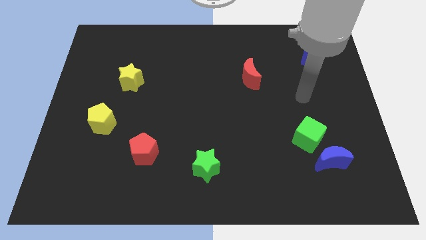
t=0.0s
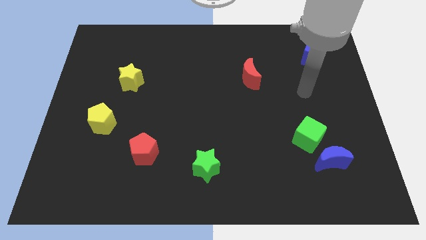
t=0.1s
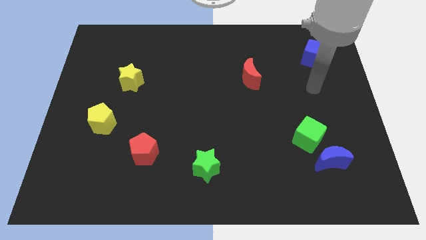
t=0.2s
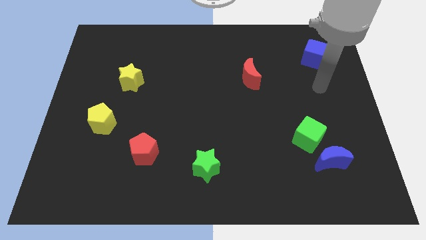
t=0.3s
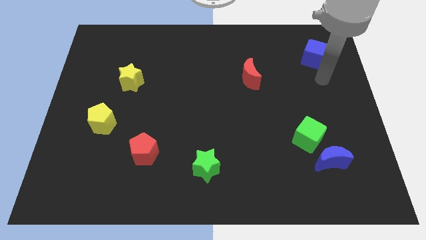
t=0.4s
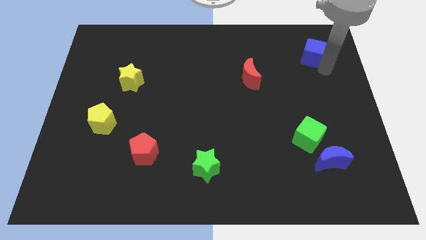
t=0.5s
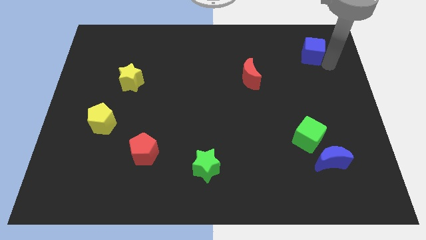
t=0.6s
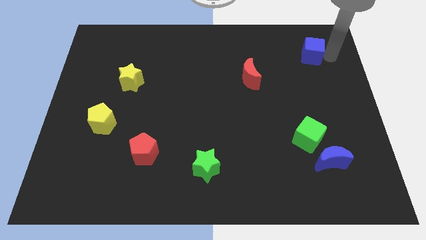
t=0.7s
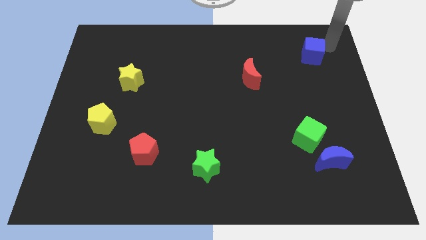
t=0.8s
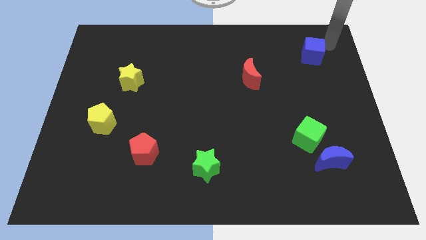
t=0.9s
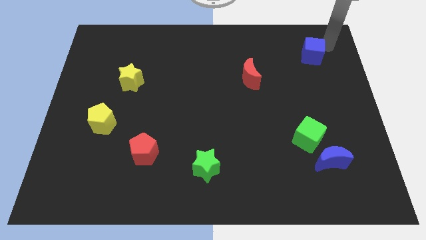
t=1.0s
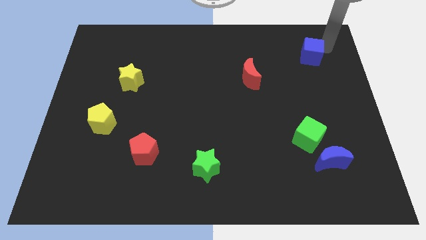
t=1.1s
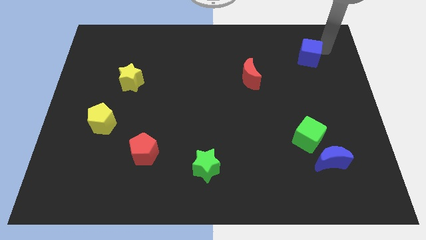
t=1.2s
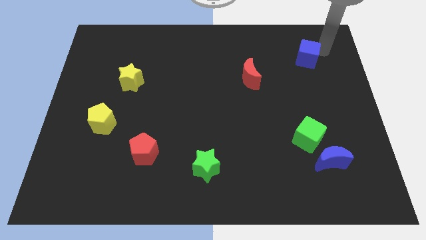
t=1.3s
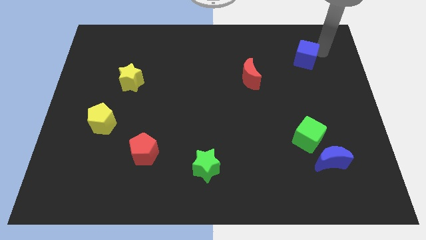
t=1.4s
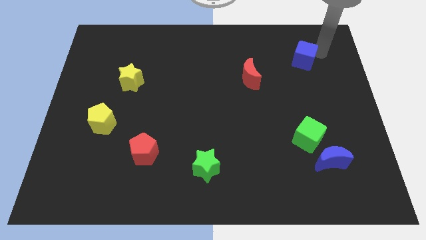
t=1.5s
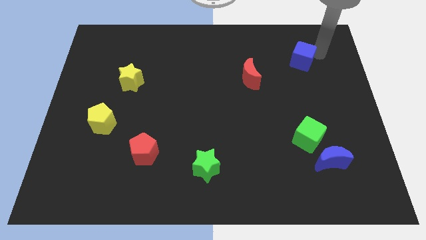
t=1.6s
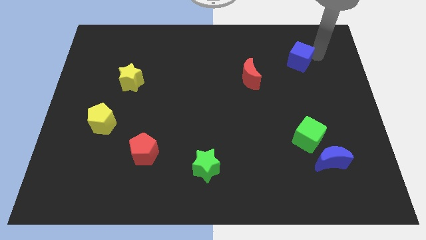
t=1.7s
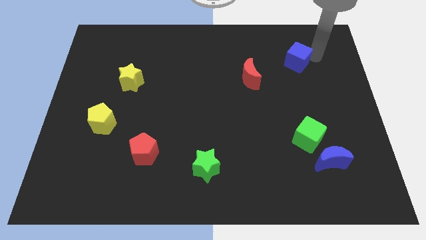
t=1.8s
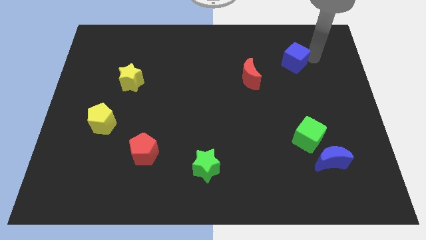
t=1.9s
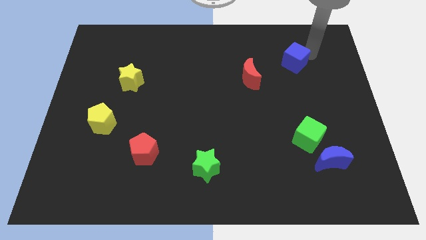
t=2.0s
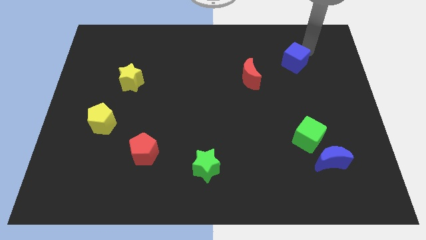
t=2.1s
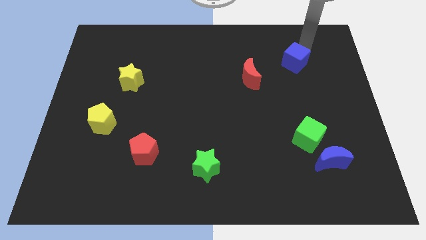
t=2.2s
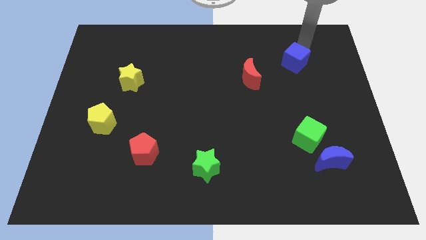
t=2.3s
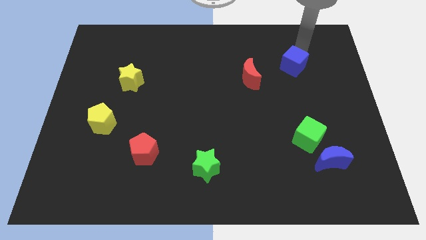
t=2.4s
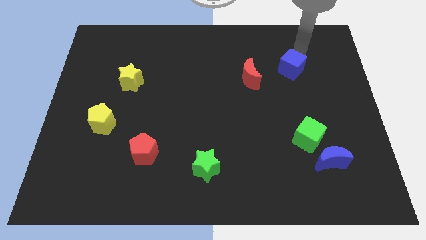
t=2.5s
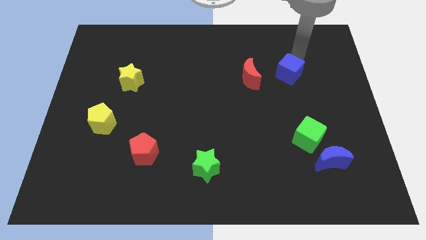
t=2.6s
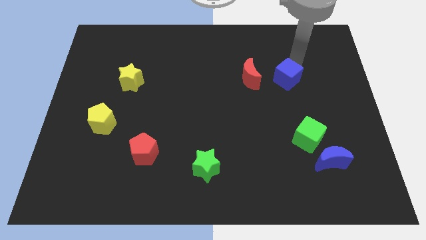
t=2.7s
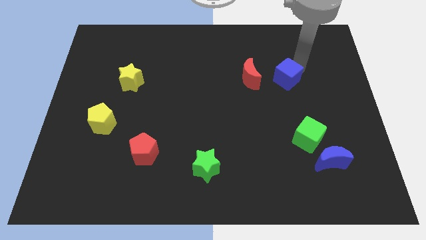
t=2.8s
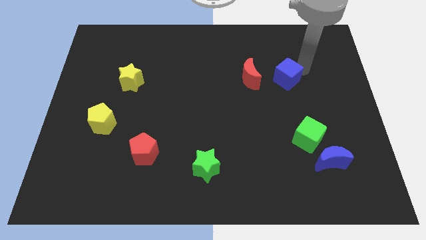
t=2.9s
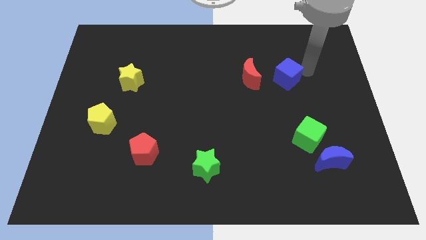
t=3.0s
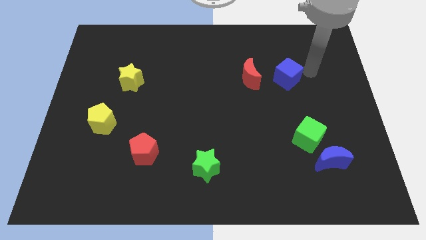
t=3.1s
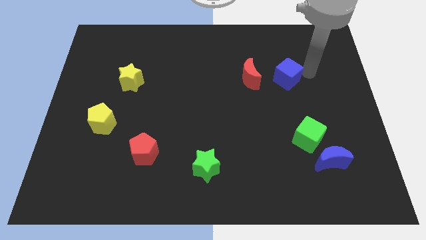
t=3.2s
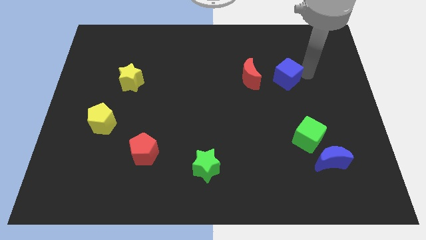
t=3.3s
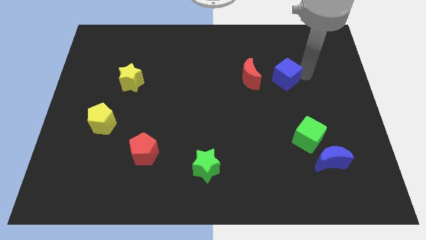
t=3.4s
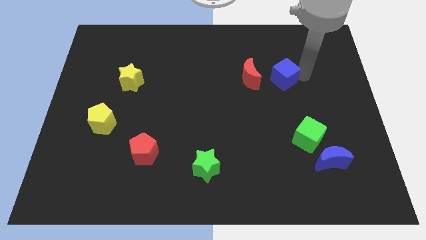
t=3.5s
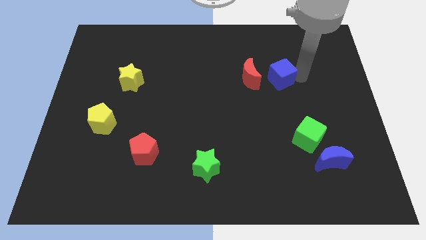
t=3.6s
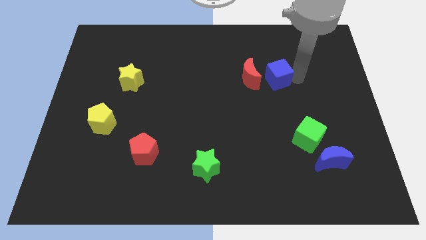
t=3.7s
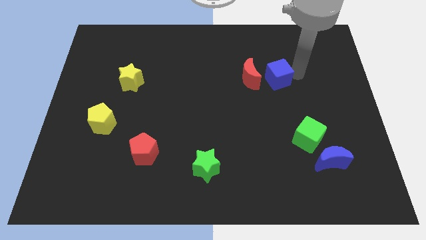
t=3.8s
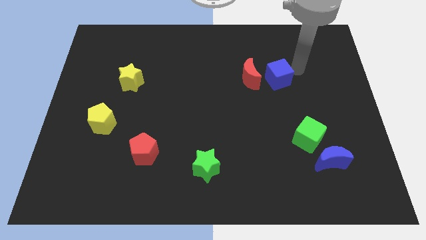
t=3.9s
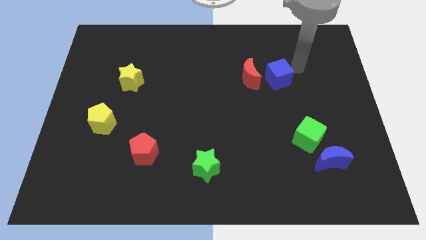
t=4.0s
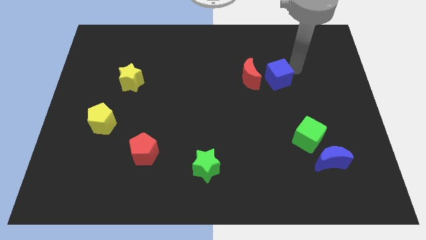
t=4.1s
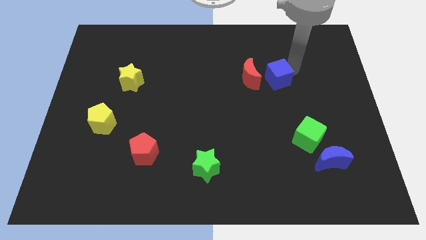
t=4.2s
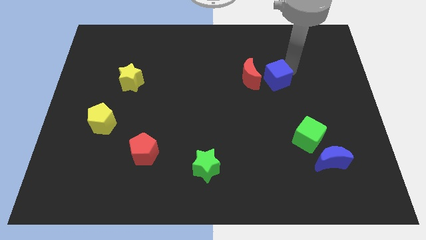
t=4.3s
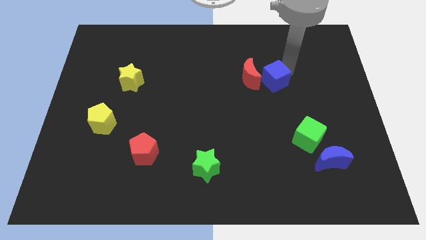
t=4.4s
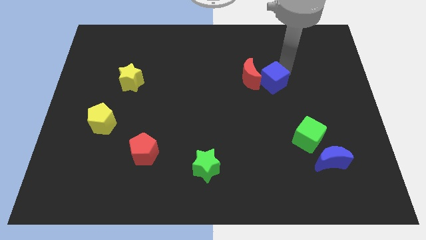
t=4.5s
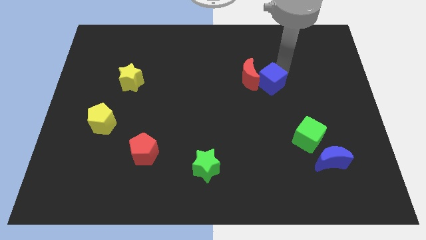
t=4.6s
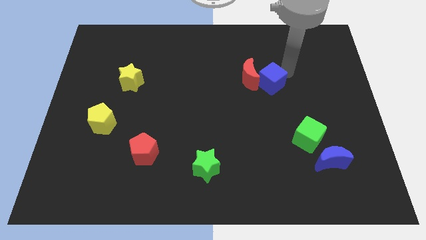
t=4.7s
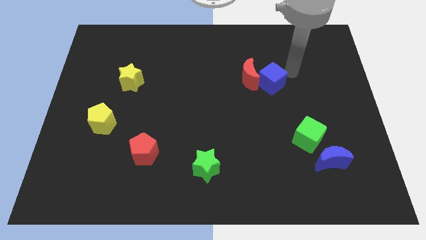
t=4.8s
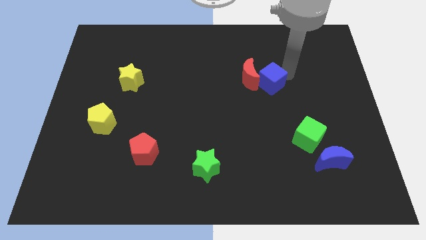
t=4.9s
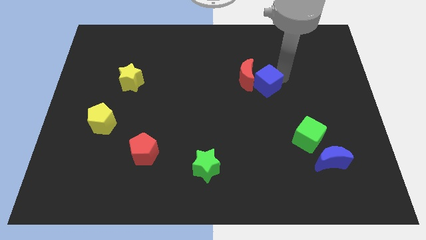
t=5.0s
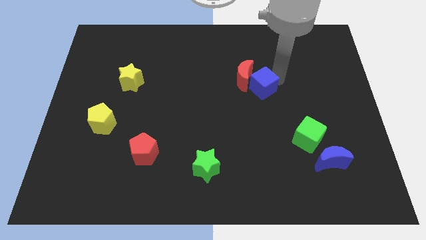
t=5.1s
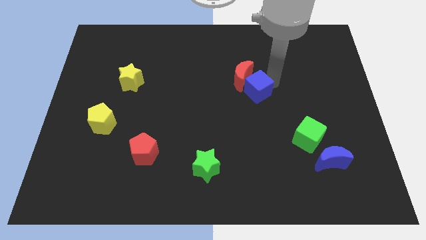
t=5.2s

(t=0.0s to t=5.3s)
slide the blue cube to the center

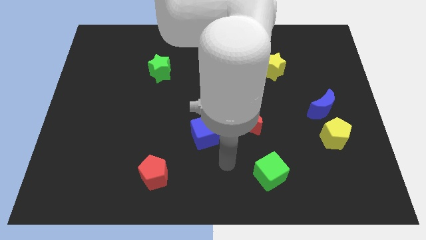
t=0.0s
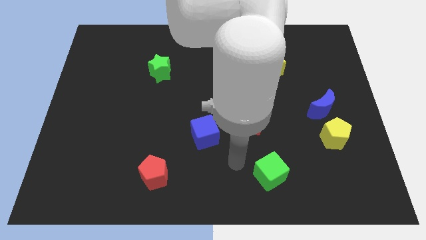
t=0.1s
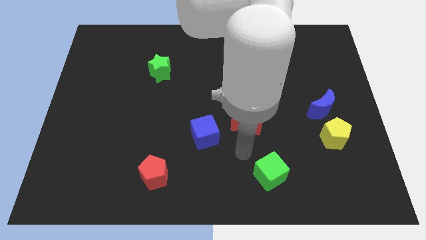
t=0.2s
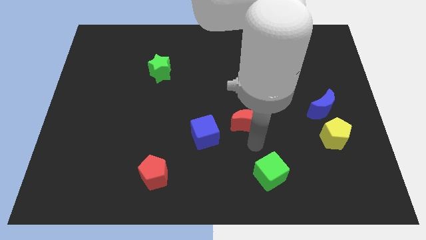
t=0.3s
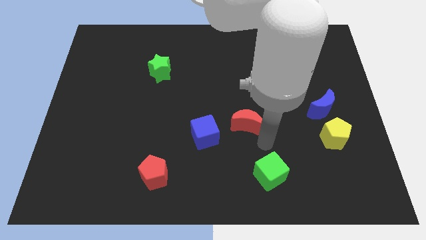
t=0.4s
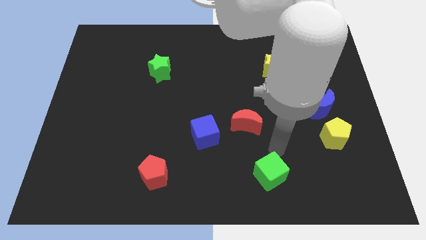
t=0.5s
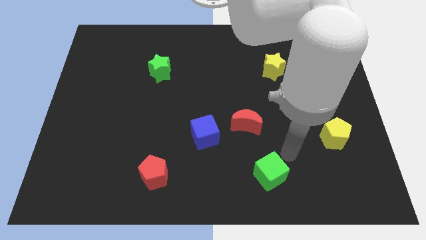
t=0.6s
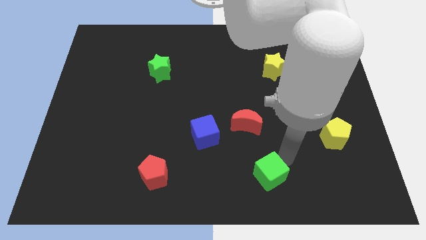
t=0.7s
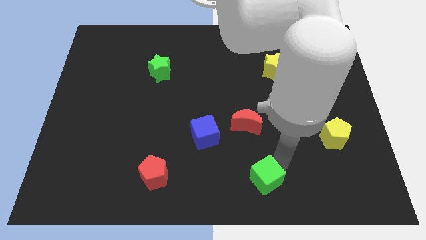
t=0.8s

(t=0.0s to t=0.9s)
slide the green cube to the bottom
